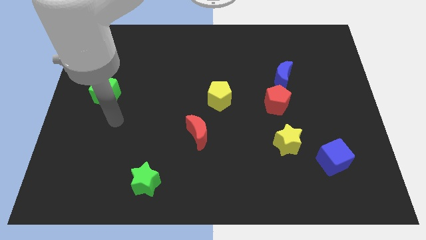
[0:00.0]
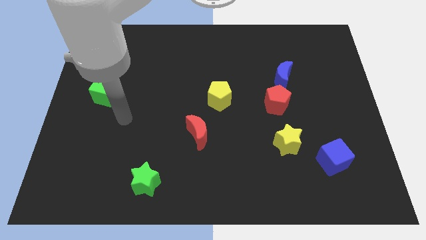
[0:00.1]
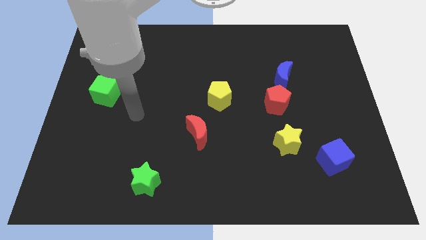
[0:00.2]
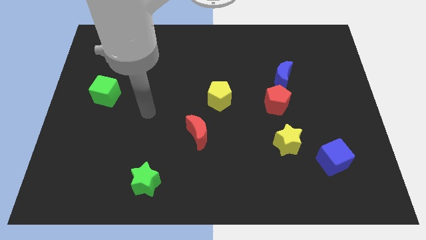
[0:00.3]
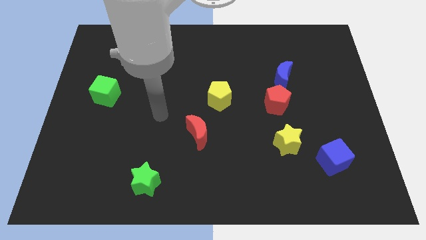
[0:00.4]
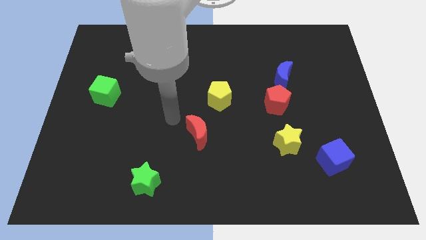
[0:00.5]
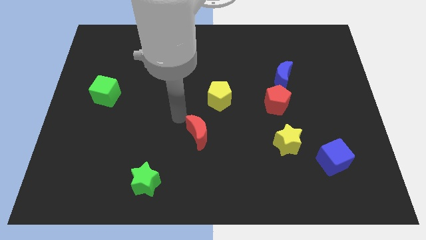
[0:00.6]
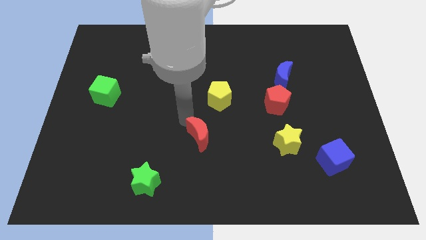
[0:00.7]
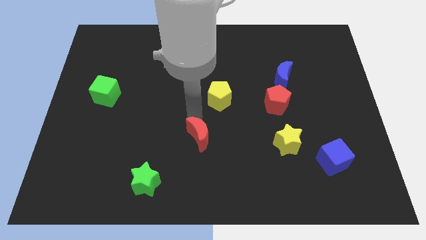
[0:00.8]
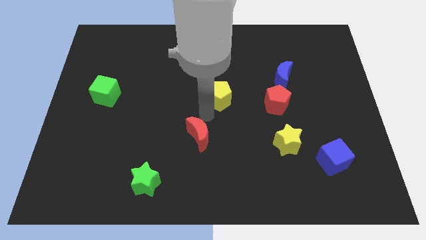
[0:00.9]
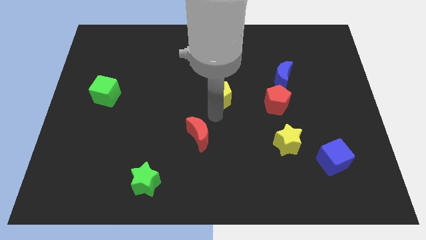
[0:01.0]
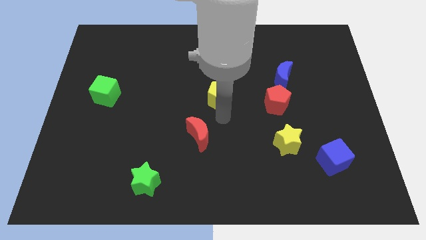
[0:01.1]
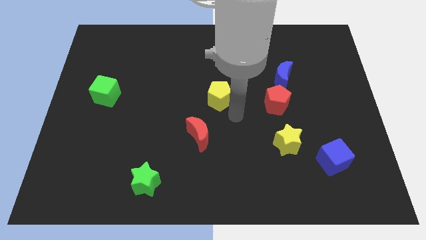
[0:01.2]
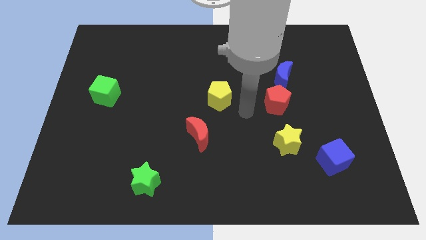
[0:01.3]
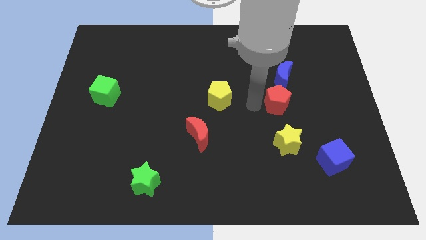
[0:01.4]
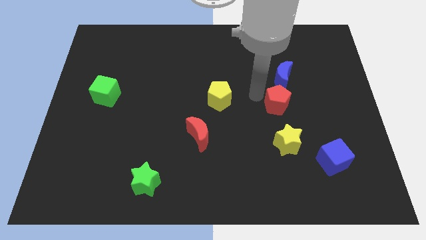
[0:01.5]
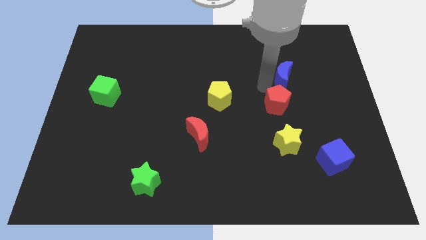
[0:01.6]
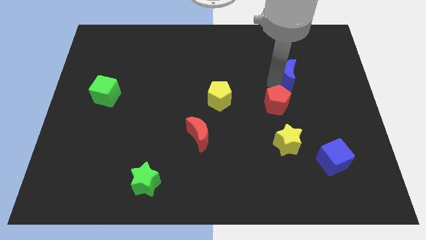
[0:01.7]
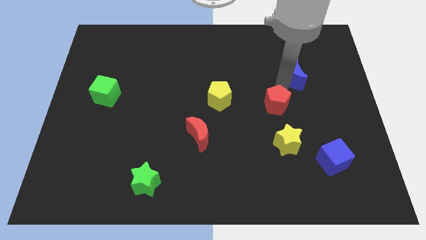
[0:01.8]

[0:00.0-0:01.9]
pull the red pentagon apart from the blue moon

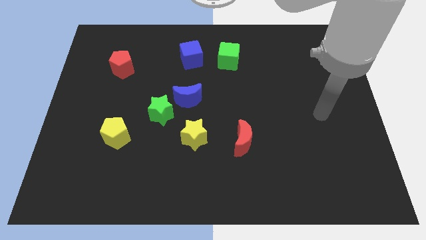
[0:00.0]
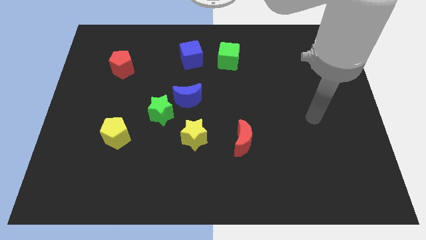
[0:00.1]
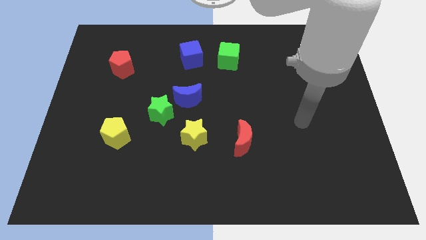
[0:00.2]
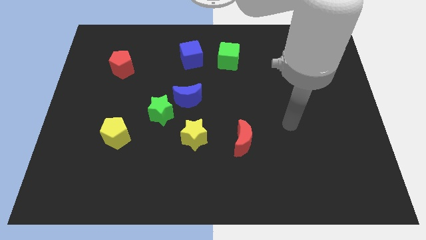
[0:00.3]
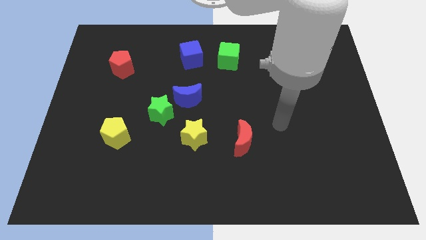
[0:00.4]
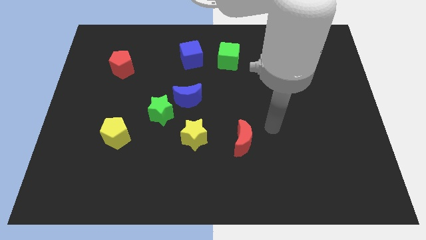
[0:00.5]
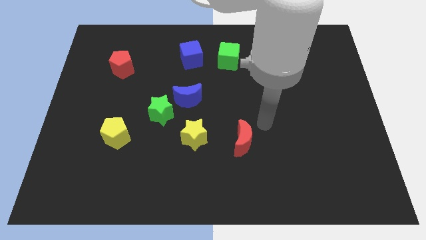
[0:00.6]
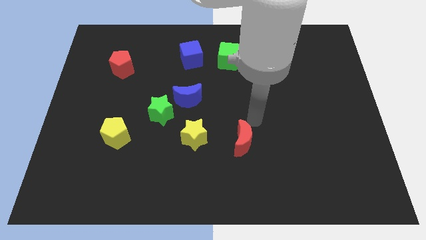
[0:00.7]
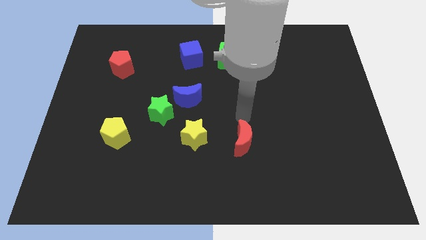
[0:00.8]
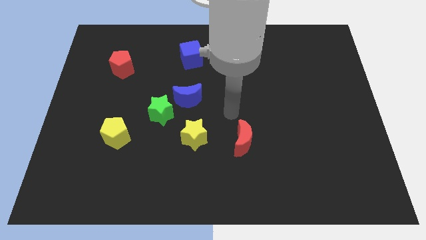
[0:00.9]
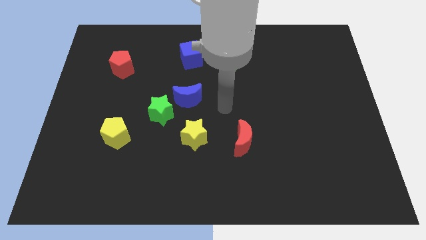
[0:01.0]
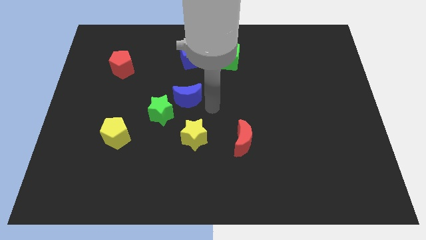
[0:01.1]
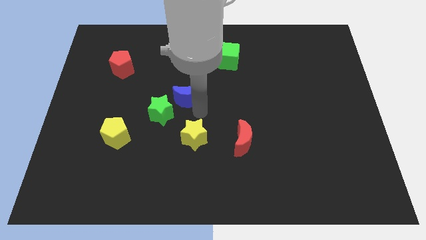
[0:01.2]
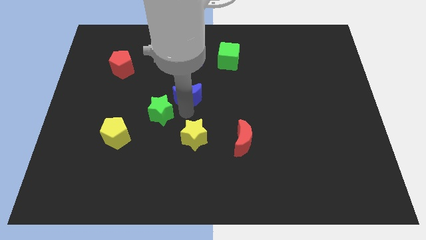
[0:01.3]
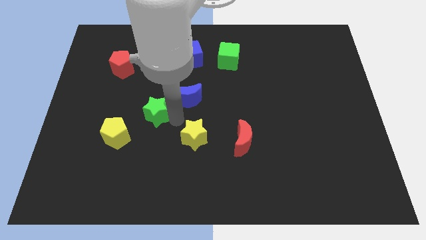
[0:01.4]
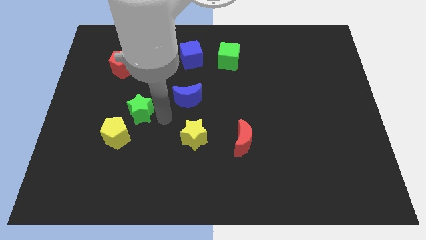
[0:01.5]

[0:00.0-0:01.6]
separate the blue moon from the green star

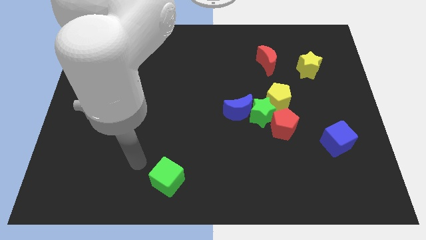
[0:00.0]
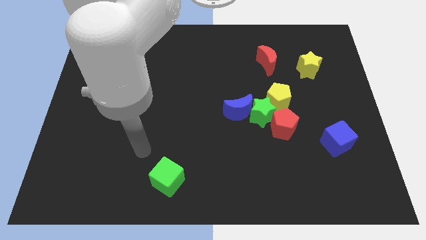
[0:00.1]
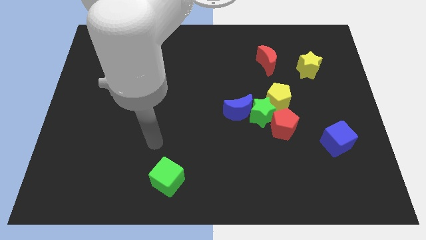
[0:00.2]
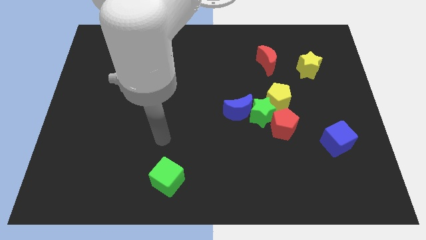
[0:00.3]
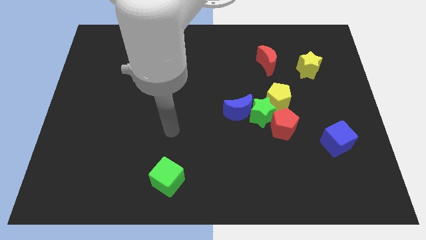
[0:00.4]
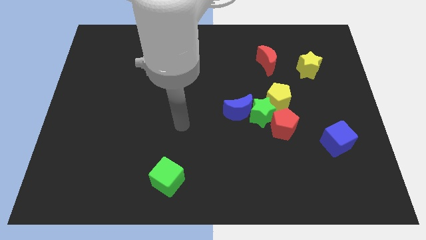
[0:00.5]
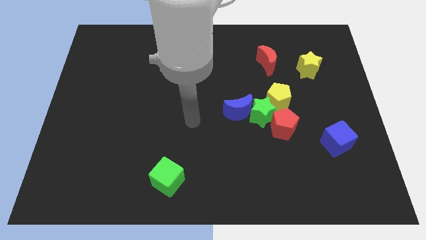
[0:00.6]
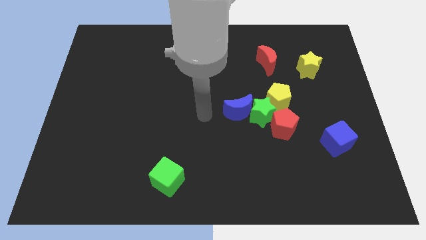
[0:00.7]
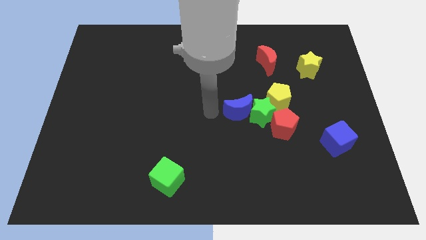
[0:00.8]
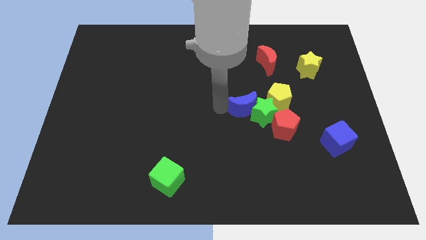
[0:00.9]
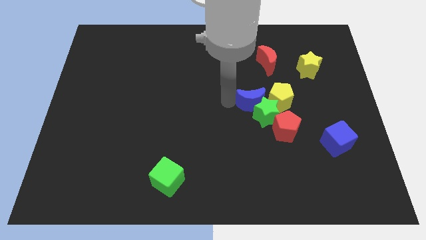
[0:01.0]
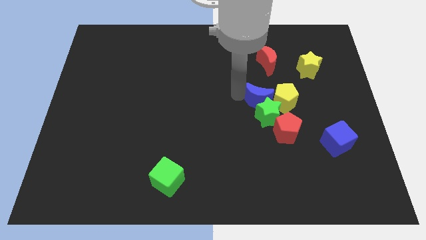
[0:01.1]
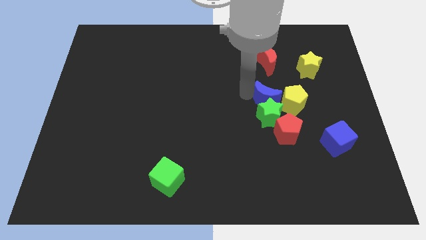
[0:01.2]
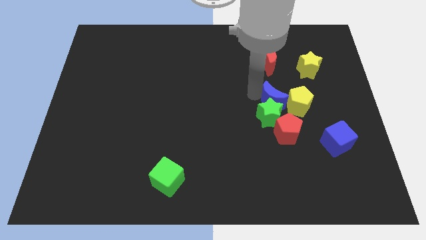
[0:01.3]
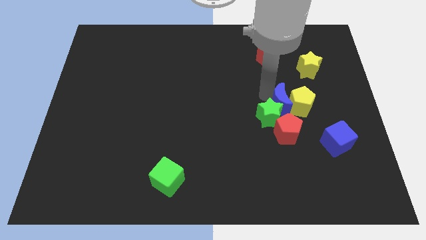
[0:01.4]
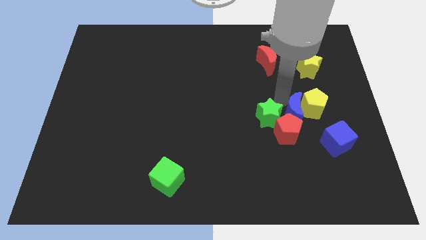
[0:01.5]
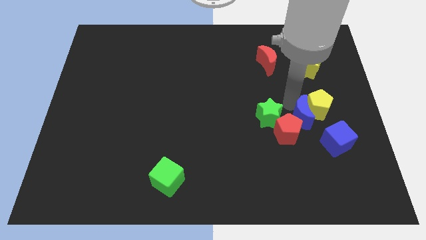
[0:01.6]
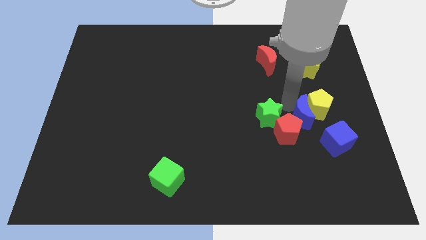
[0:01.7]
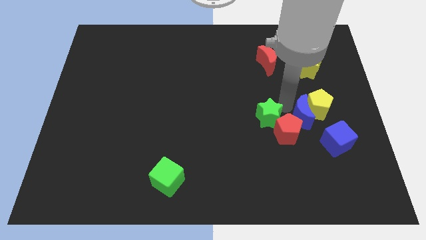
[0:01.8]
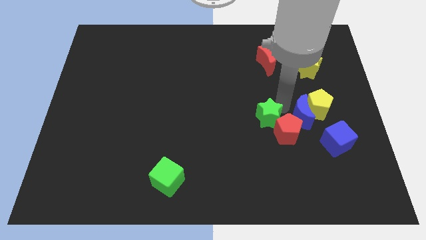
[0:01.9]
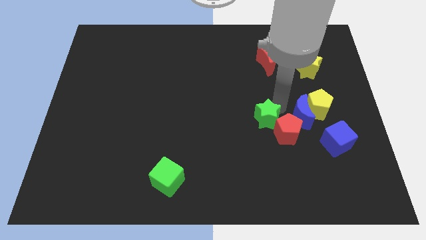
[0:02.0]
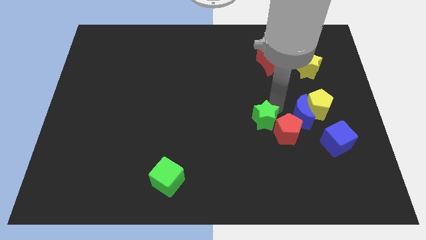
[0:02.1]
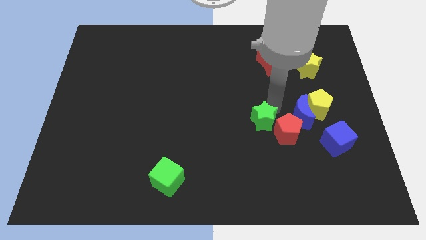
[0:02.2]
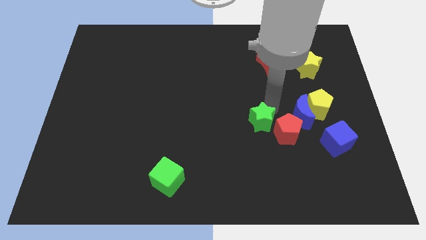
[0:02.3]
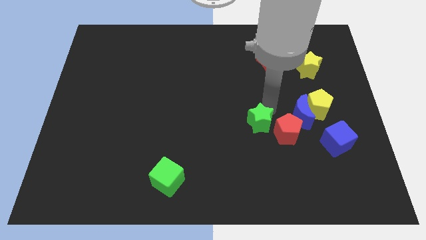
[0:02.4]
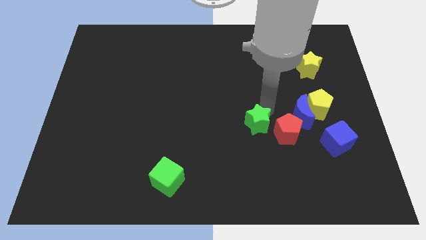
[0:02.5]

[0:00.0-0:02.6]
separate the green star from the blue moon, yellow pentagon, and red pentagon

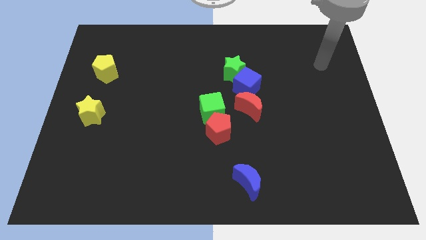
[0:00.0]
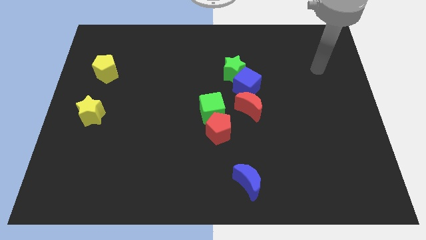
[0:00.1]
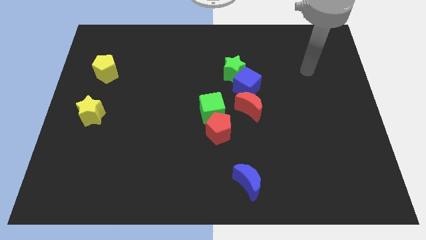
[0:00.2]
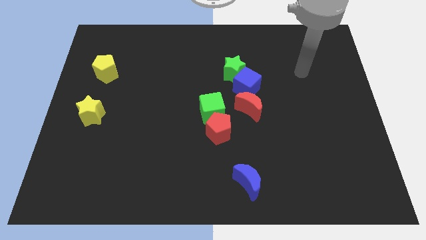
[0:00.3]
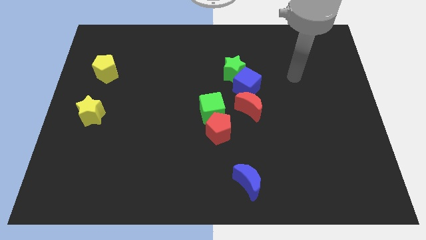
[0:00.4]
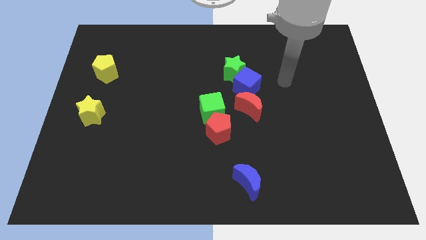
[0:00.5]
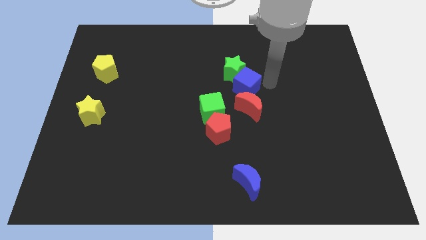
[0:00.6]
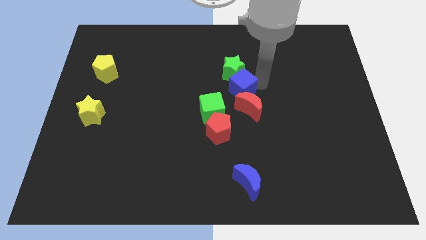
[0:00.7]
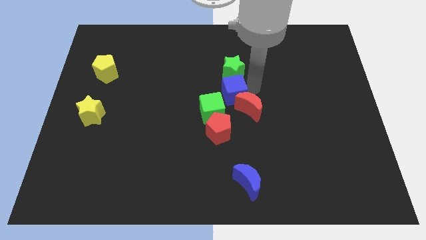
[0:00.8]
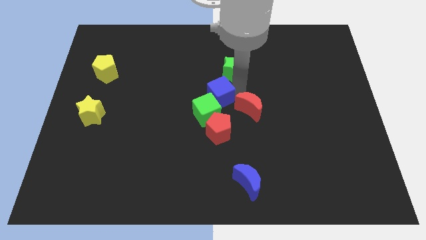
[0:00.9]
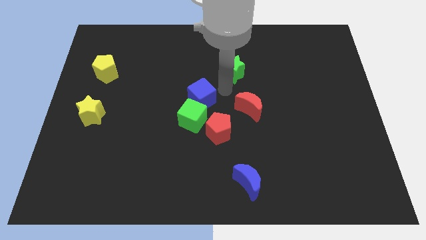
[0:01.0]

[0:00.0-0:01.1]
move the green star away from the blue cube

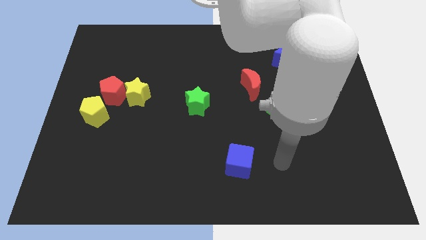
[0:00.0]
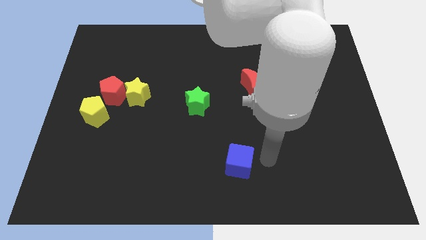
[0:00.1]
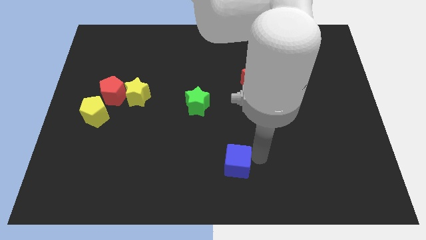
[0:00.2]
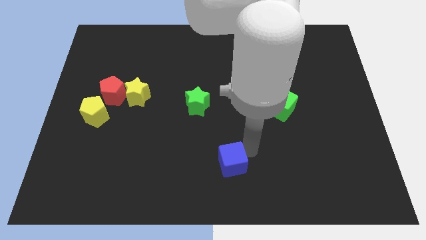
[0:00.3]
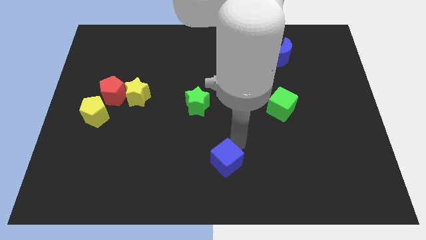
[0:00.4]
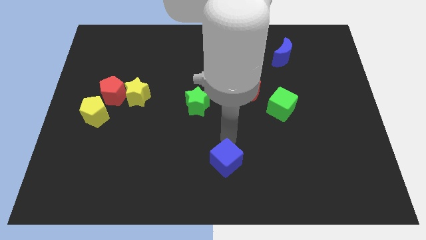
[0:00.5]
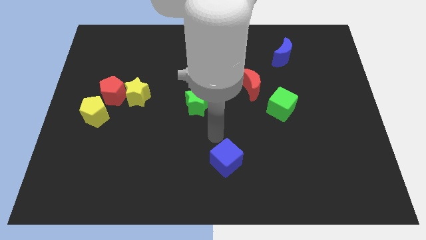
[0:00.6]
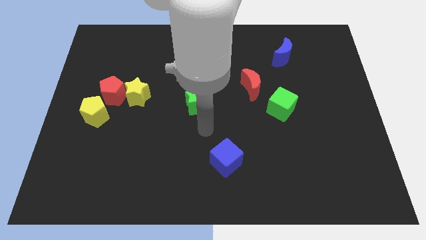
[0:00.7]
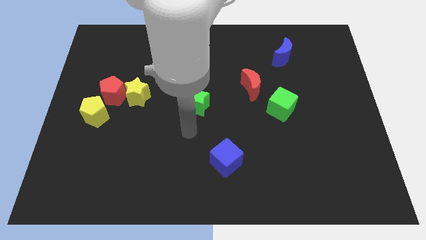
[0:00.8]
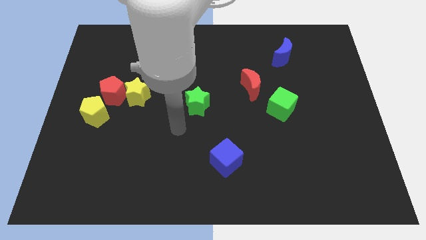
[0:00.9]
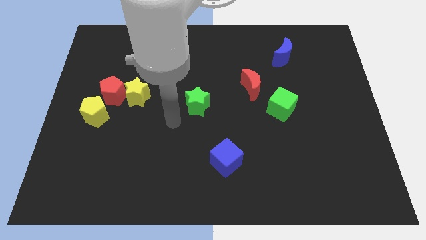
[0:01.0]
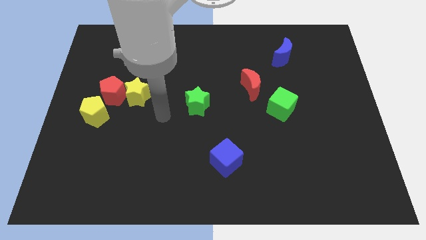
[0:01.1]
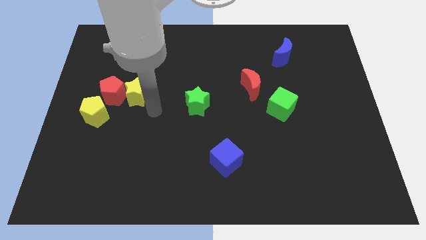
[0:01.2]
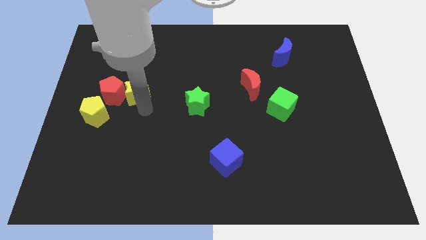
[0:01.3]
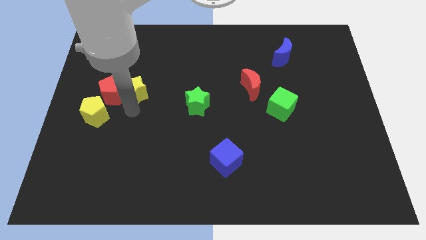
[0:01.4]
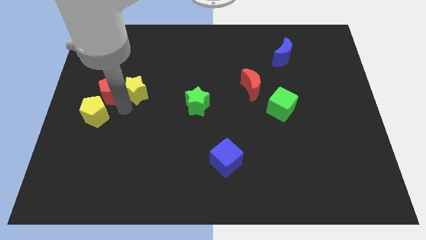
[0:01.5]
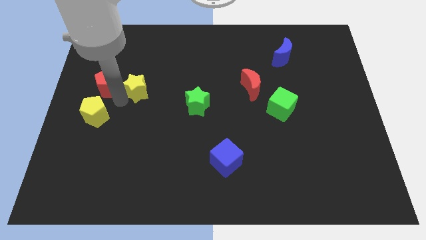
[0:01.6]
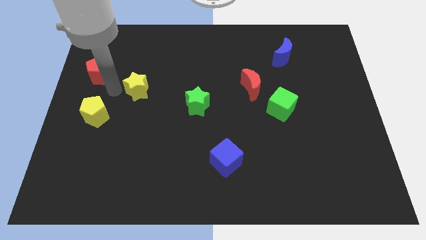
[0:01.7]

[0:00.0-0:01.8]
move the yellow star away from the red pentagon

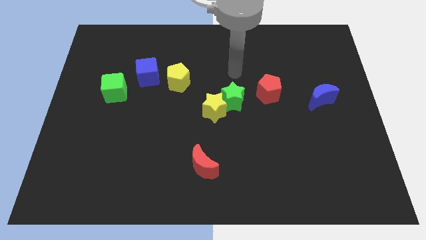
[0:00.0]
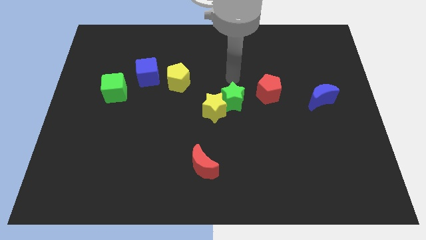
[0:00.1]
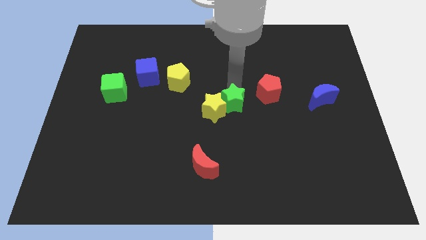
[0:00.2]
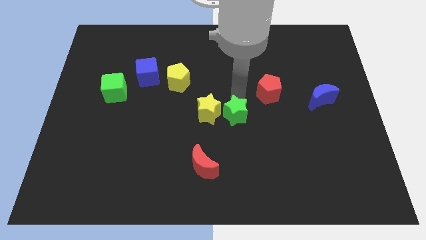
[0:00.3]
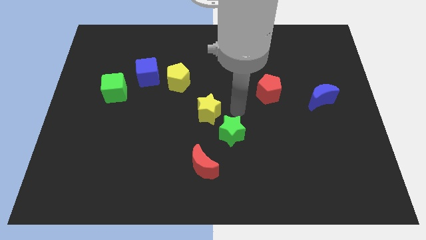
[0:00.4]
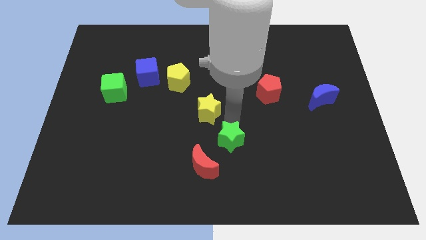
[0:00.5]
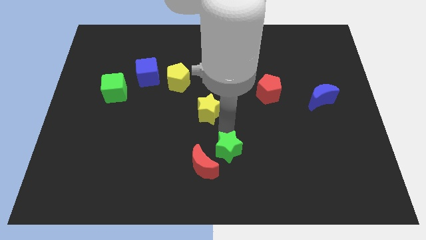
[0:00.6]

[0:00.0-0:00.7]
pull the yellow star apart from the green star
